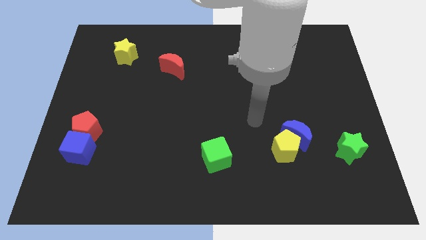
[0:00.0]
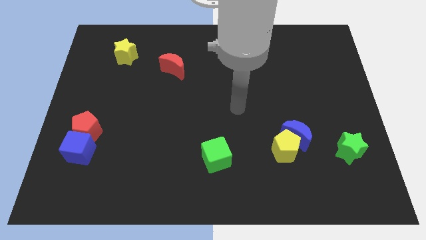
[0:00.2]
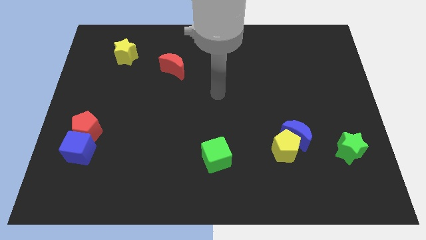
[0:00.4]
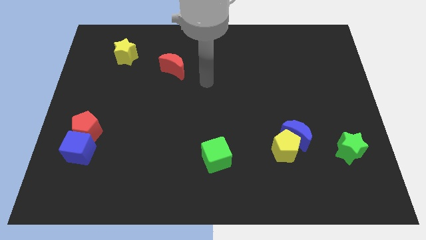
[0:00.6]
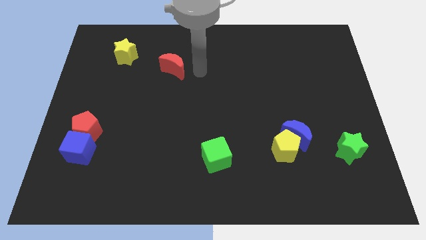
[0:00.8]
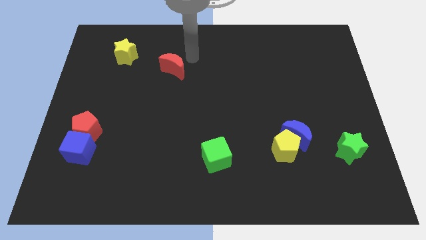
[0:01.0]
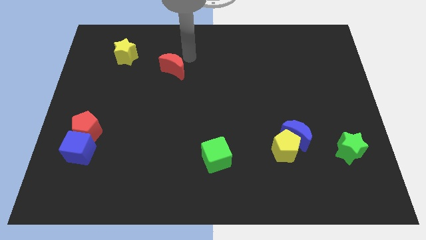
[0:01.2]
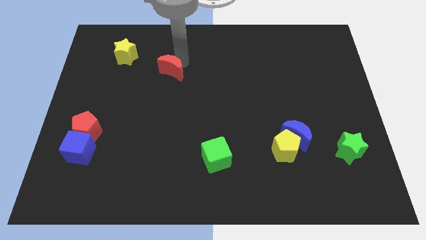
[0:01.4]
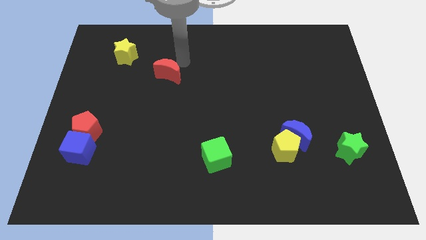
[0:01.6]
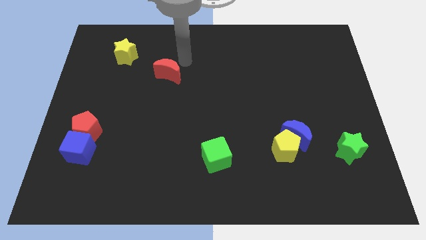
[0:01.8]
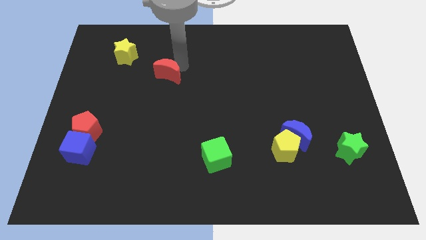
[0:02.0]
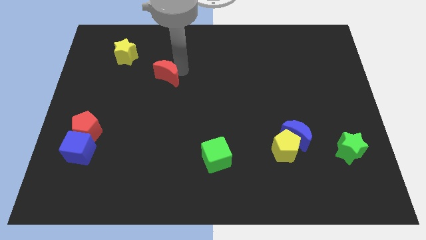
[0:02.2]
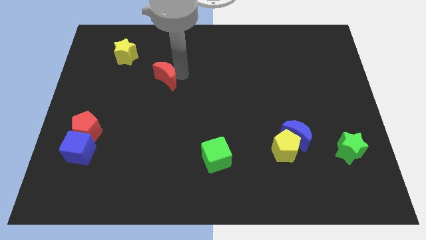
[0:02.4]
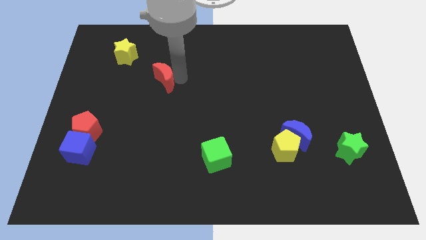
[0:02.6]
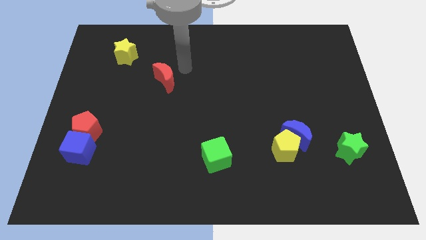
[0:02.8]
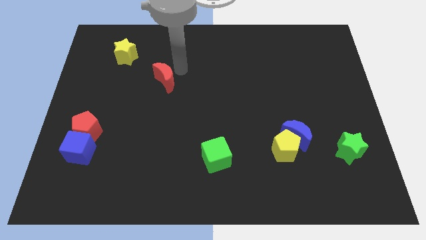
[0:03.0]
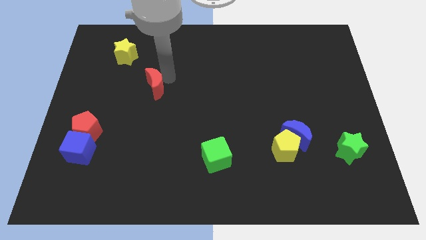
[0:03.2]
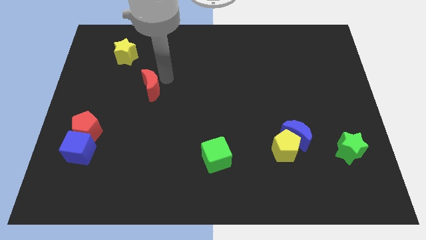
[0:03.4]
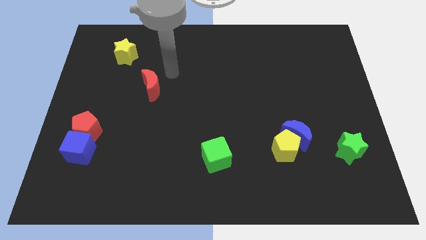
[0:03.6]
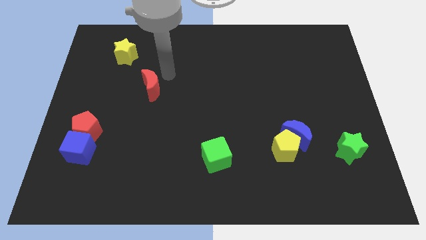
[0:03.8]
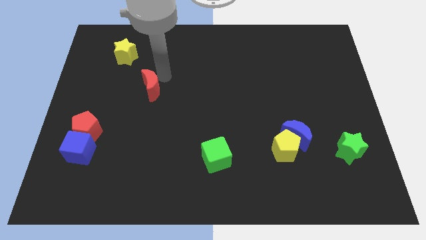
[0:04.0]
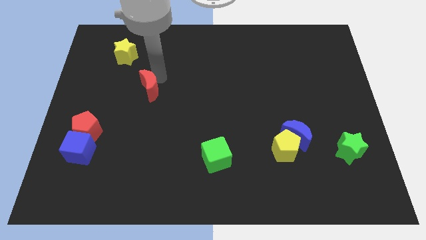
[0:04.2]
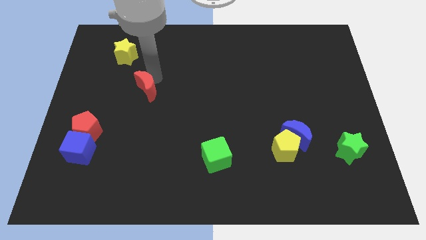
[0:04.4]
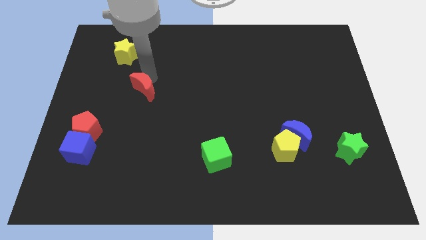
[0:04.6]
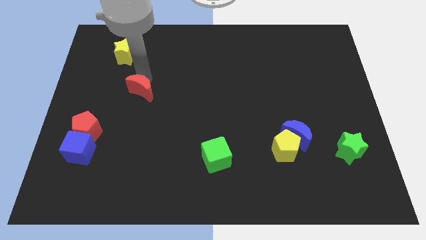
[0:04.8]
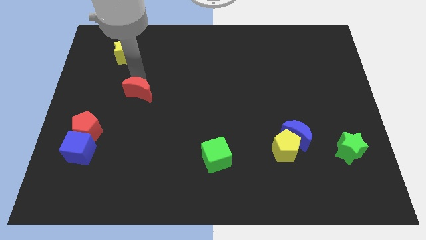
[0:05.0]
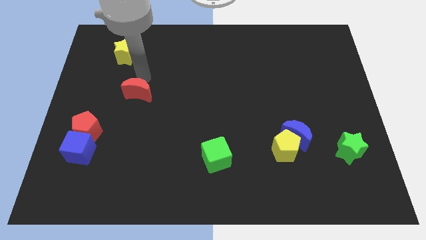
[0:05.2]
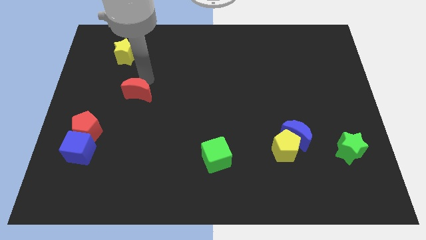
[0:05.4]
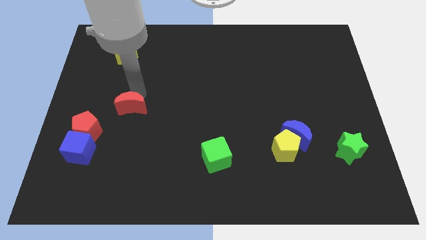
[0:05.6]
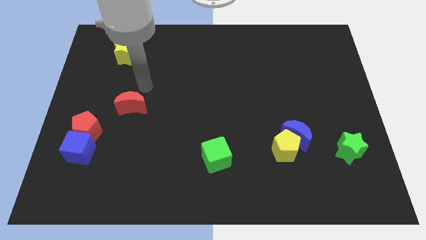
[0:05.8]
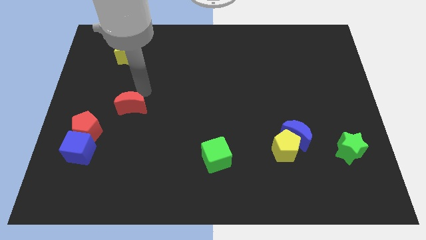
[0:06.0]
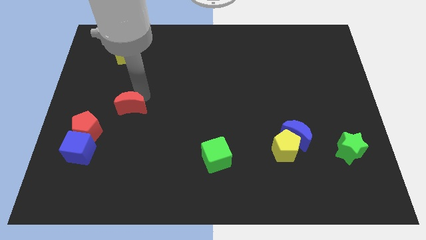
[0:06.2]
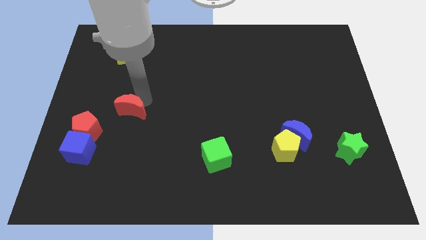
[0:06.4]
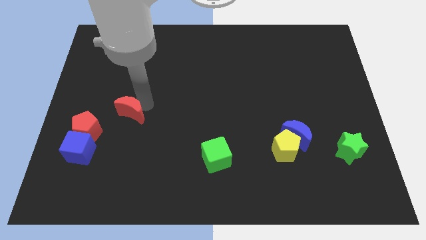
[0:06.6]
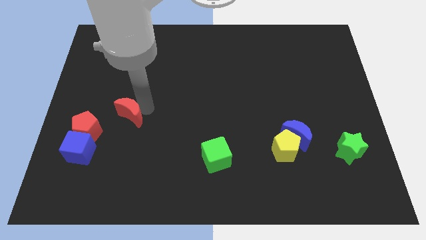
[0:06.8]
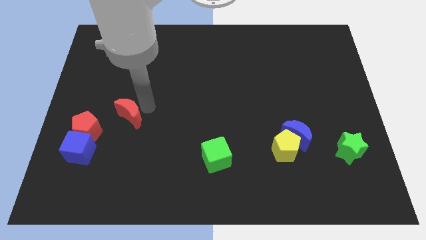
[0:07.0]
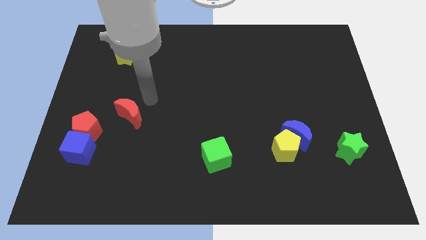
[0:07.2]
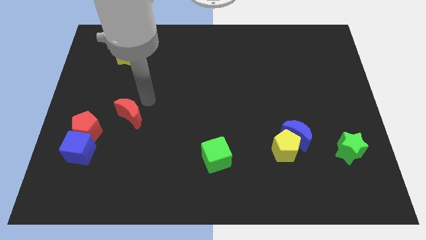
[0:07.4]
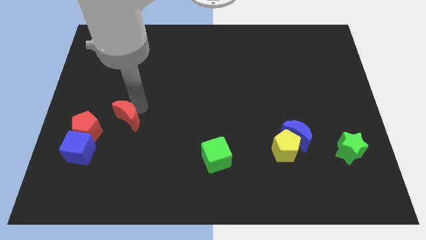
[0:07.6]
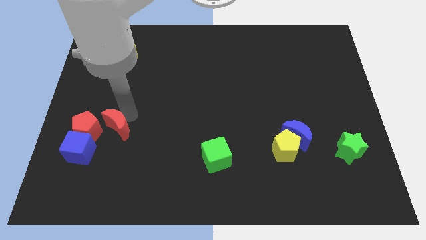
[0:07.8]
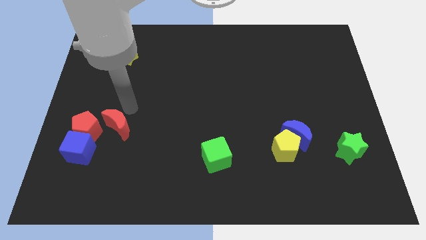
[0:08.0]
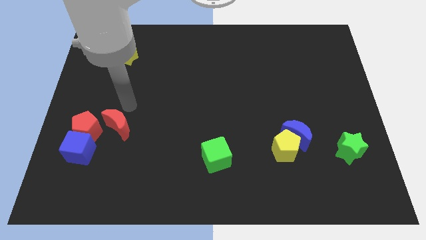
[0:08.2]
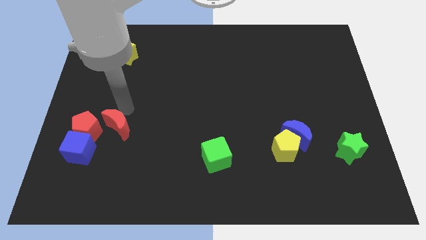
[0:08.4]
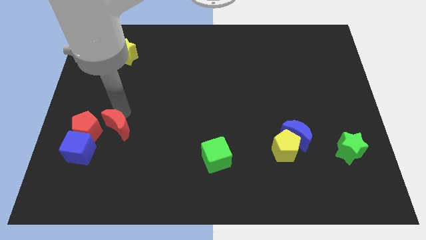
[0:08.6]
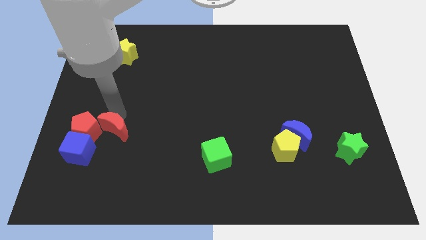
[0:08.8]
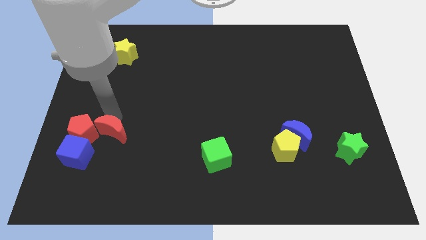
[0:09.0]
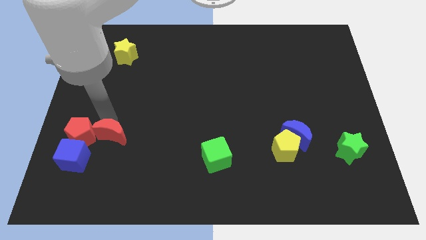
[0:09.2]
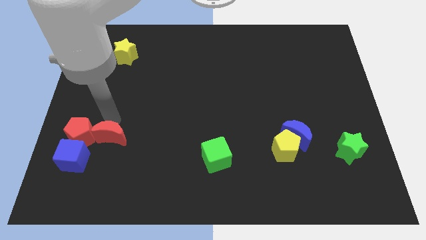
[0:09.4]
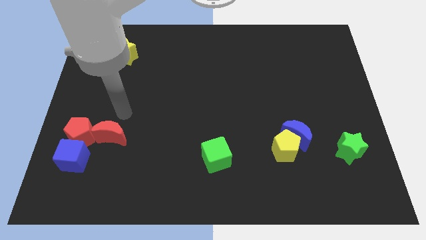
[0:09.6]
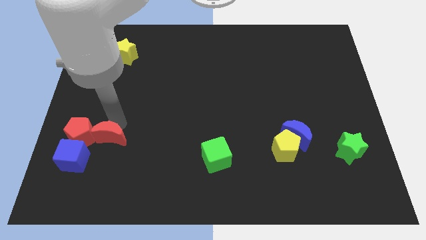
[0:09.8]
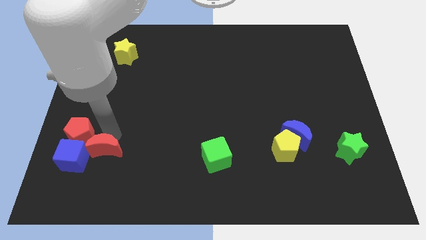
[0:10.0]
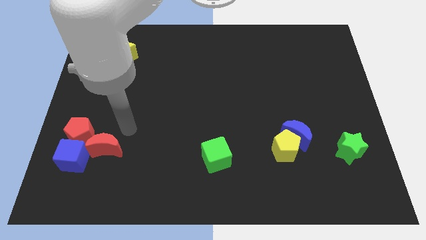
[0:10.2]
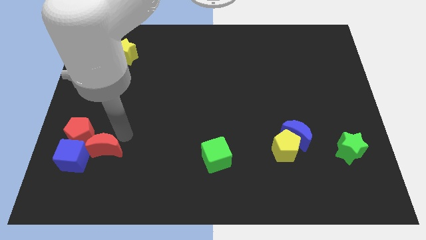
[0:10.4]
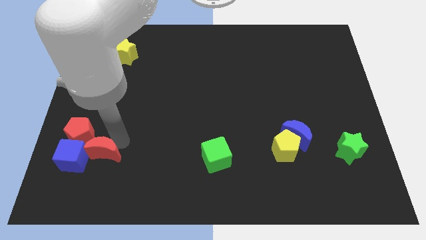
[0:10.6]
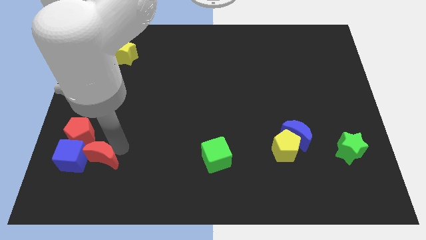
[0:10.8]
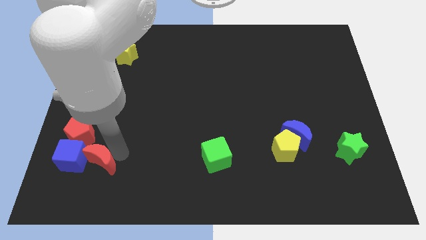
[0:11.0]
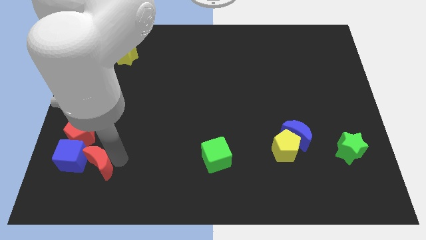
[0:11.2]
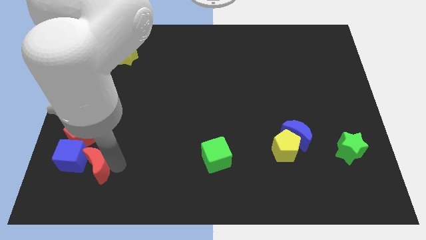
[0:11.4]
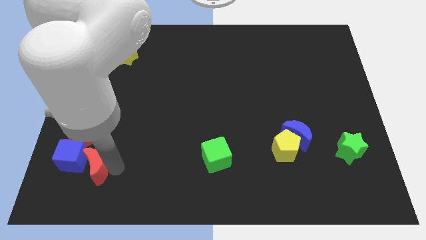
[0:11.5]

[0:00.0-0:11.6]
slide the red moon below the red pentagon

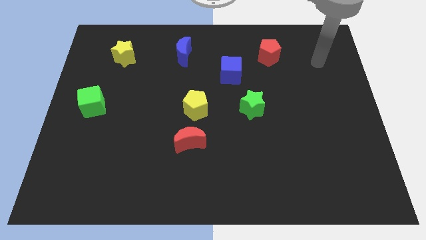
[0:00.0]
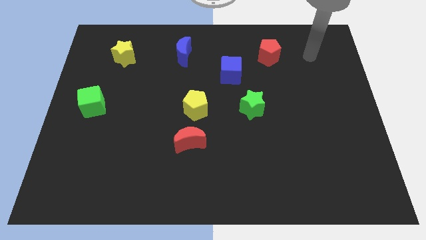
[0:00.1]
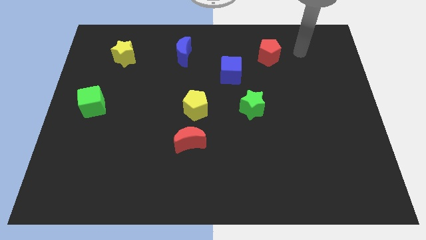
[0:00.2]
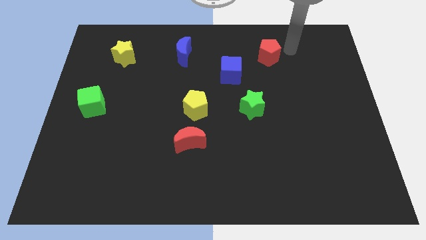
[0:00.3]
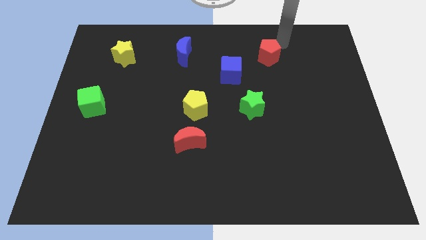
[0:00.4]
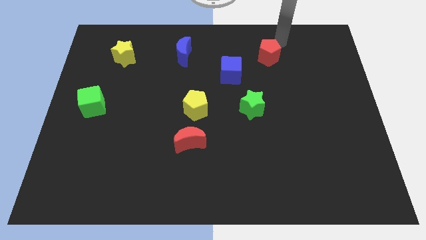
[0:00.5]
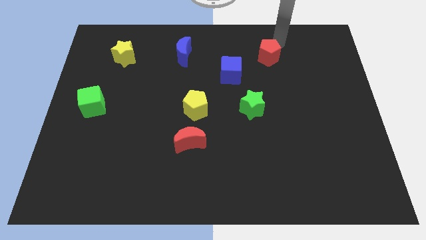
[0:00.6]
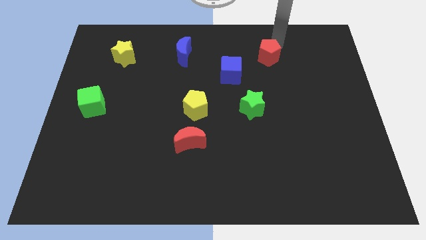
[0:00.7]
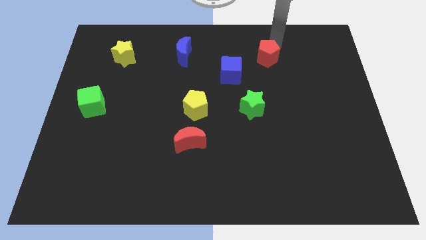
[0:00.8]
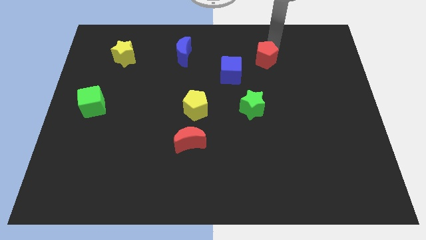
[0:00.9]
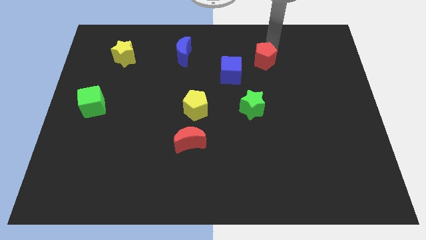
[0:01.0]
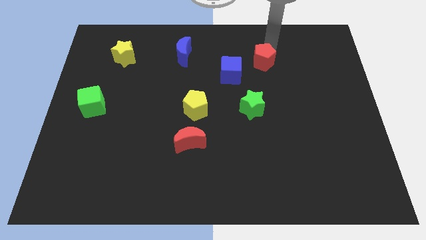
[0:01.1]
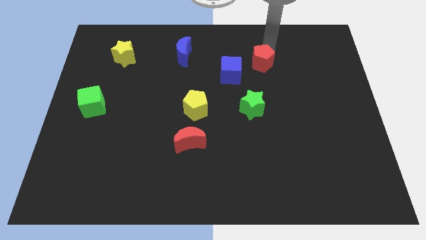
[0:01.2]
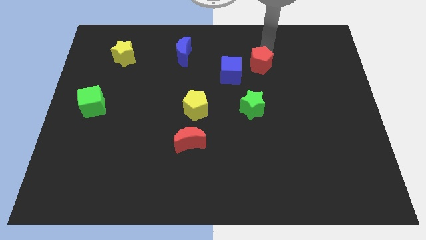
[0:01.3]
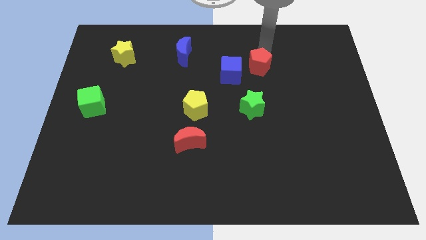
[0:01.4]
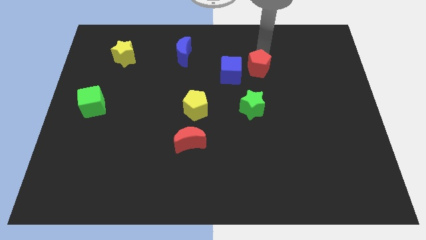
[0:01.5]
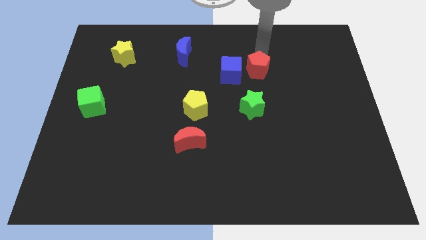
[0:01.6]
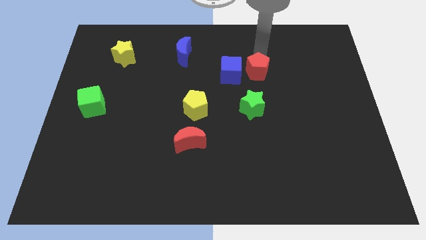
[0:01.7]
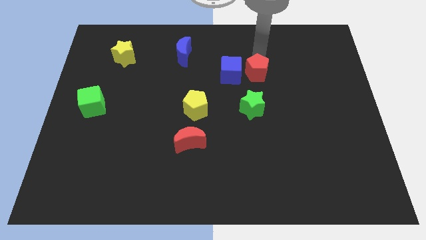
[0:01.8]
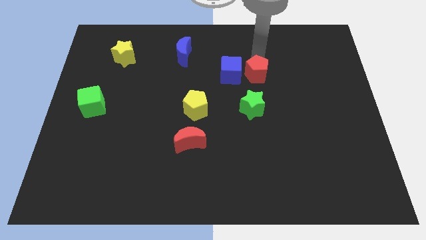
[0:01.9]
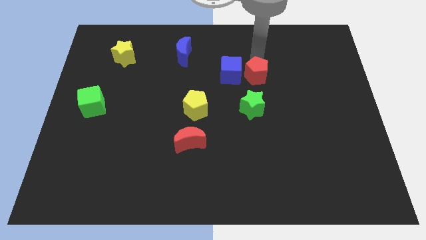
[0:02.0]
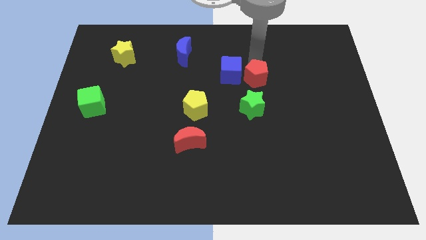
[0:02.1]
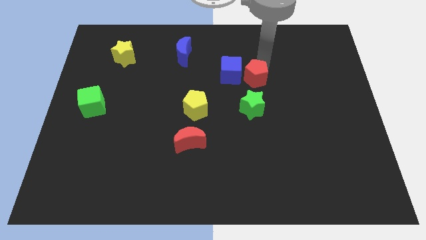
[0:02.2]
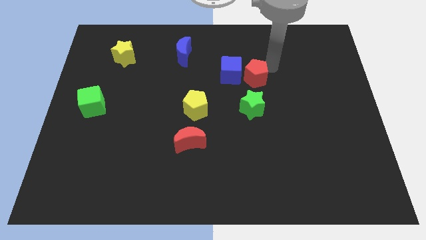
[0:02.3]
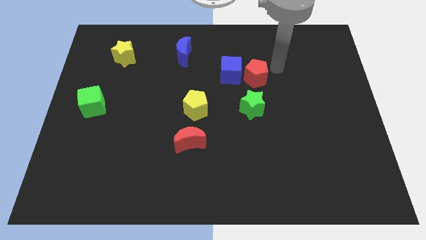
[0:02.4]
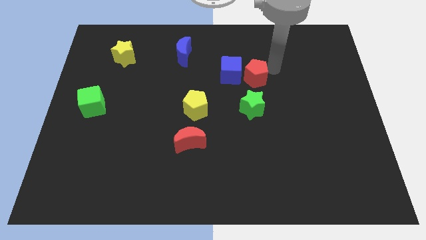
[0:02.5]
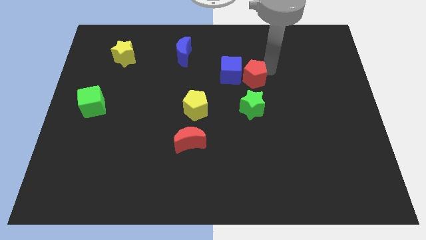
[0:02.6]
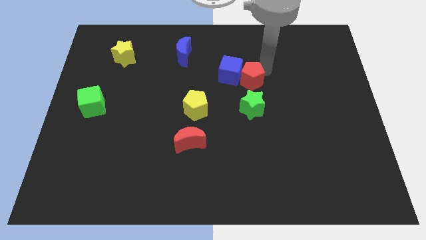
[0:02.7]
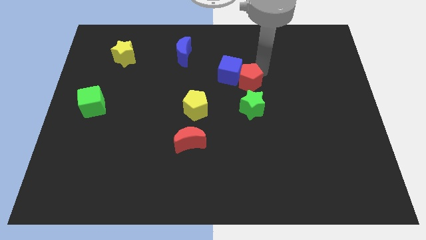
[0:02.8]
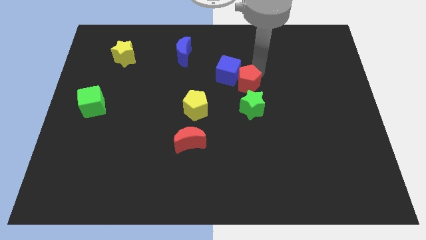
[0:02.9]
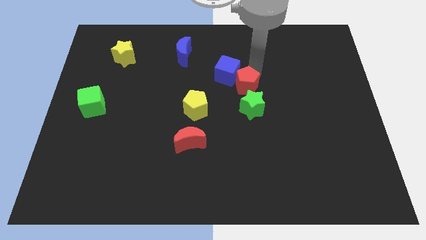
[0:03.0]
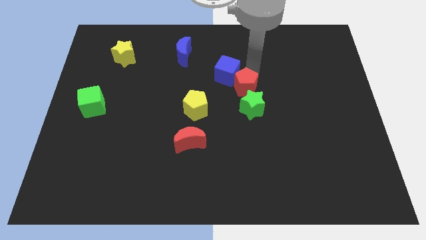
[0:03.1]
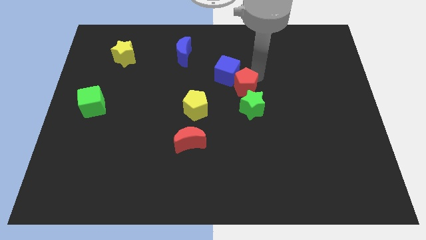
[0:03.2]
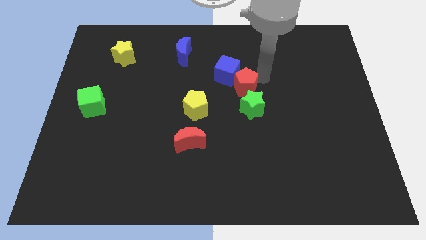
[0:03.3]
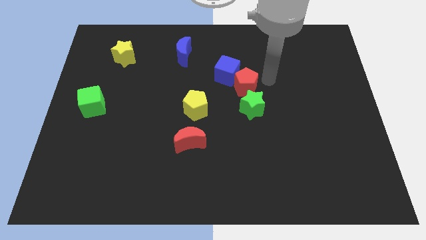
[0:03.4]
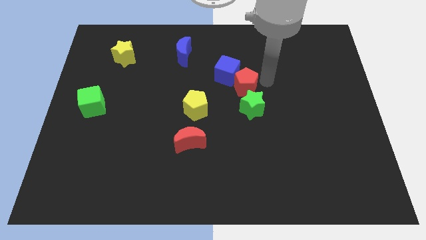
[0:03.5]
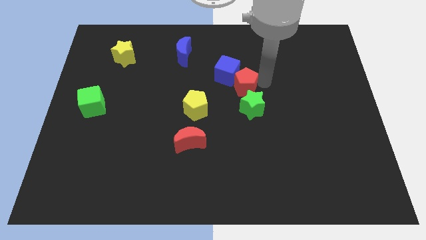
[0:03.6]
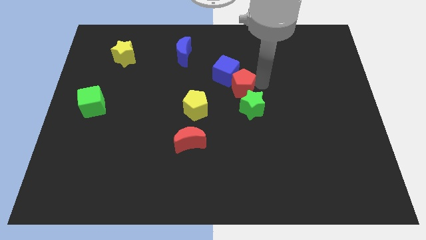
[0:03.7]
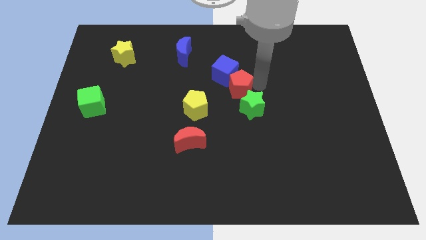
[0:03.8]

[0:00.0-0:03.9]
push the red pentagon to the top right of the yellow pentagon
